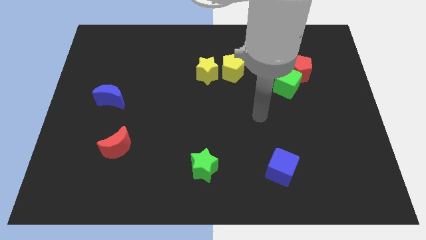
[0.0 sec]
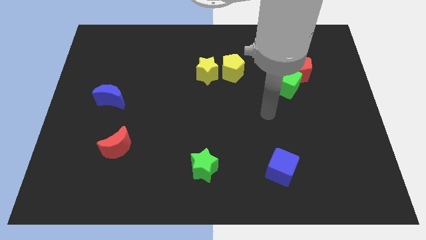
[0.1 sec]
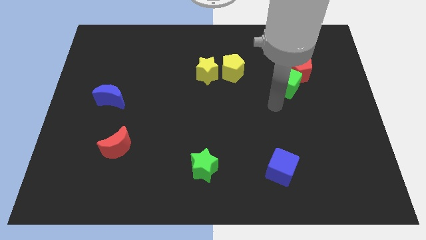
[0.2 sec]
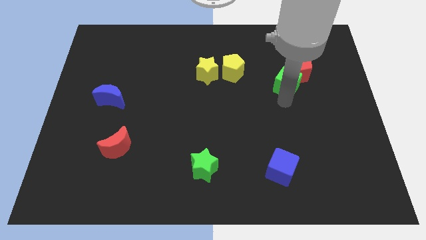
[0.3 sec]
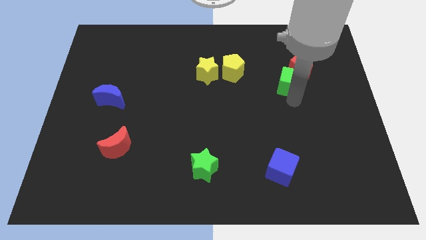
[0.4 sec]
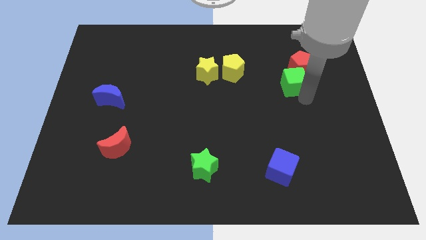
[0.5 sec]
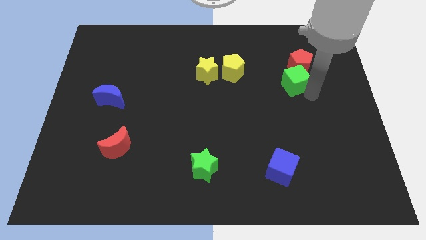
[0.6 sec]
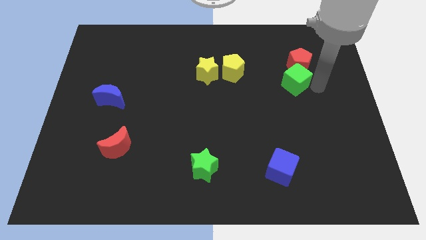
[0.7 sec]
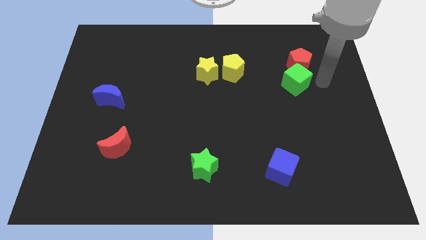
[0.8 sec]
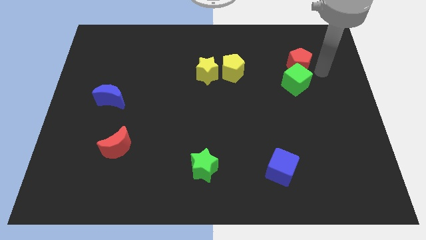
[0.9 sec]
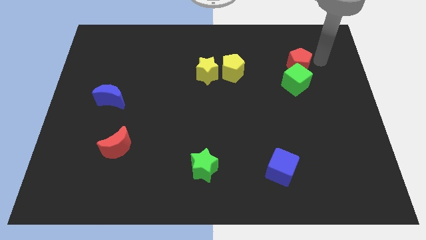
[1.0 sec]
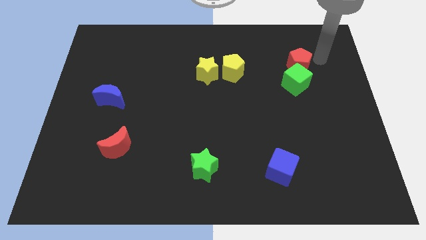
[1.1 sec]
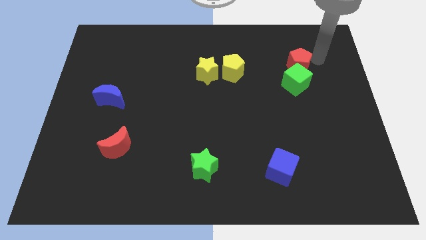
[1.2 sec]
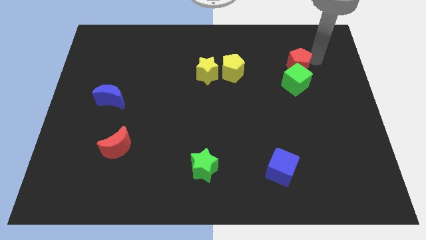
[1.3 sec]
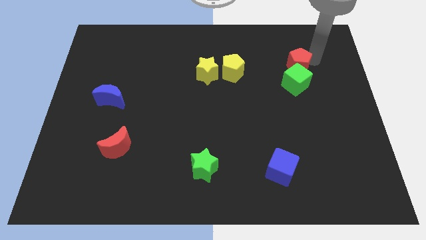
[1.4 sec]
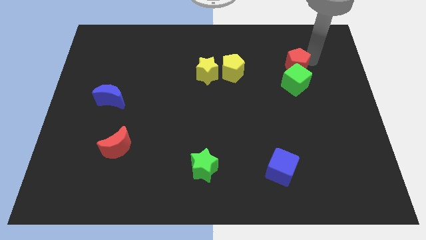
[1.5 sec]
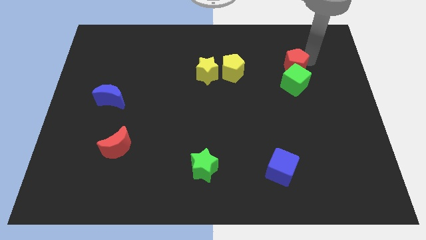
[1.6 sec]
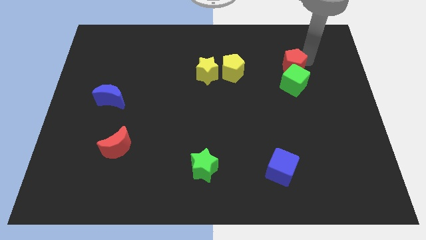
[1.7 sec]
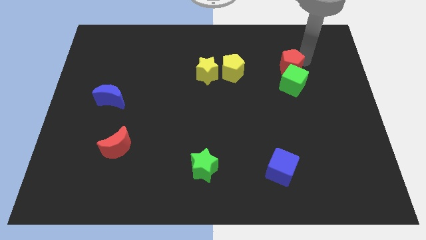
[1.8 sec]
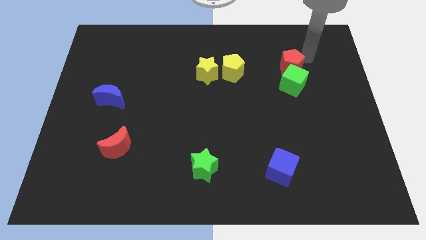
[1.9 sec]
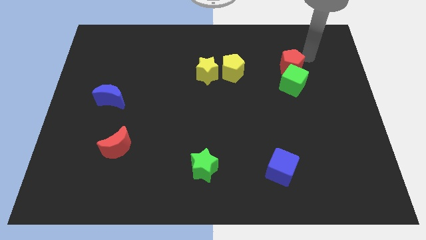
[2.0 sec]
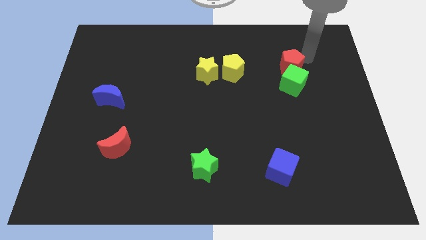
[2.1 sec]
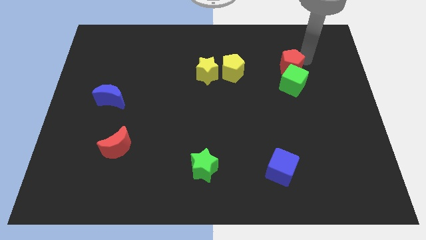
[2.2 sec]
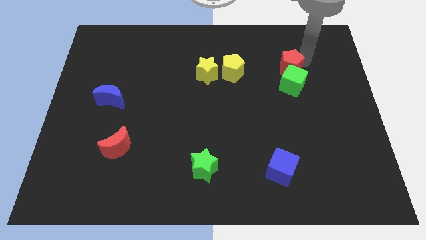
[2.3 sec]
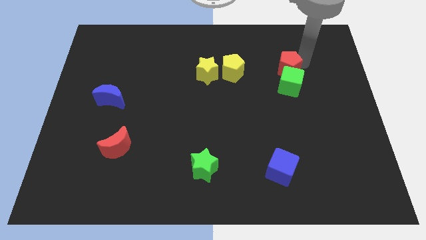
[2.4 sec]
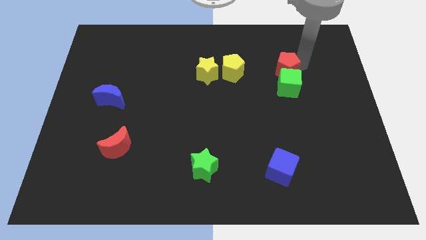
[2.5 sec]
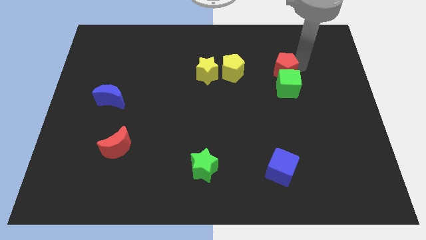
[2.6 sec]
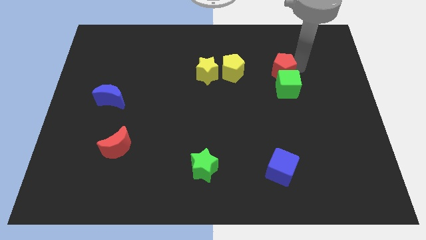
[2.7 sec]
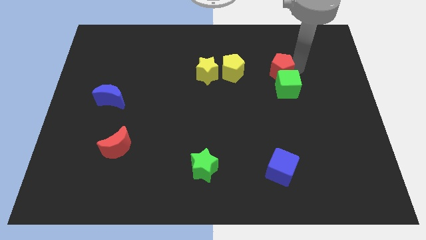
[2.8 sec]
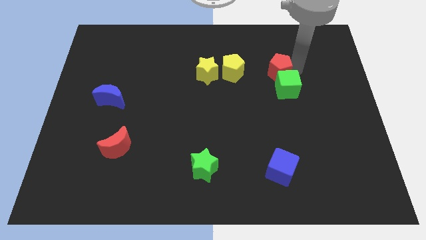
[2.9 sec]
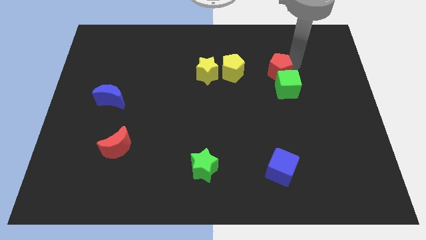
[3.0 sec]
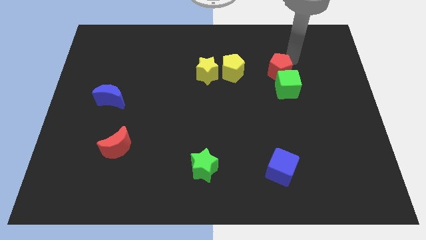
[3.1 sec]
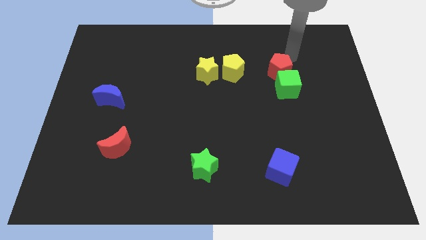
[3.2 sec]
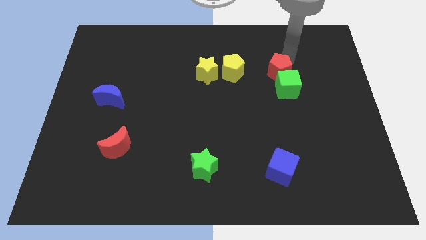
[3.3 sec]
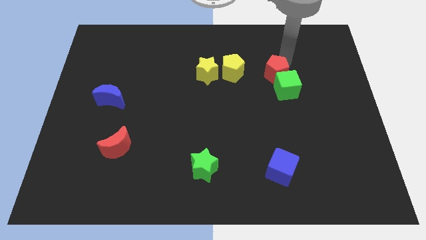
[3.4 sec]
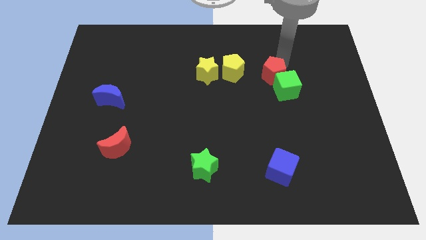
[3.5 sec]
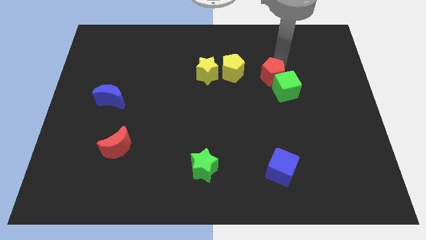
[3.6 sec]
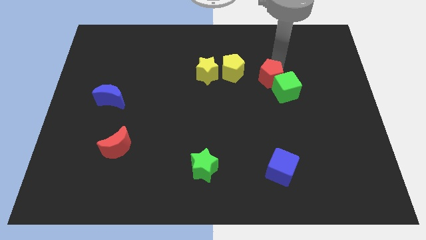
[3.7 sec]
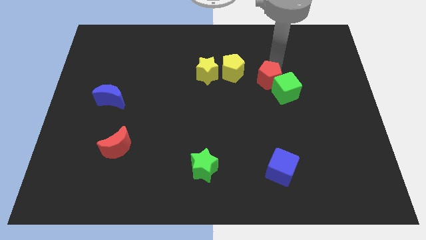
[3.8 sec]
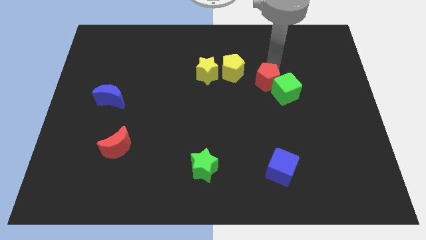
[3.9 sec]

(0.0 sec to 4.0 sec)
slide the red pentagon a little bit diagonally down and left

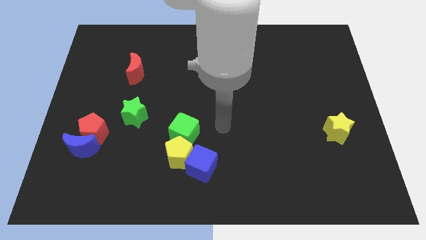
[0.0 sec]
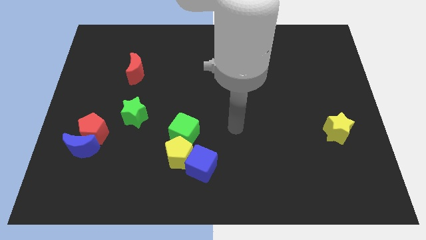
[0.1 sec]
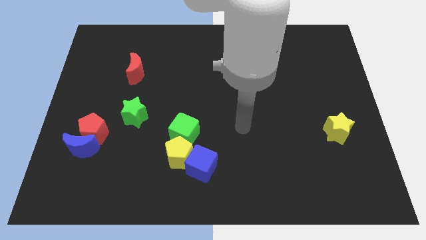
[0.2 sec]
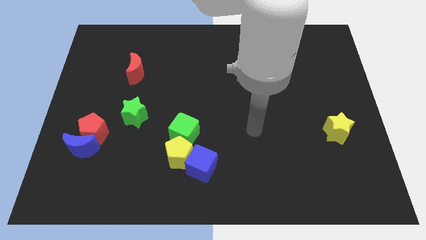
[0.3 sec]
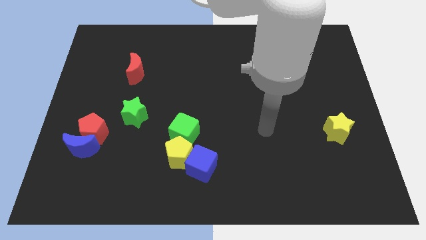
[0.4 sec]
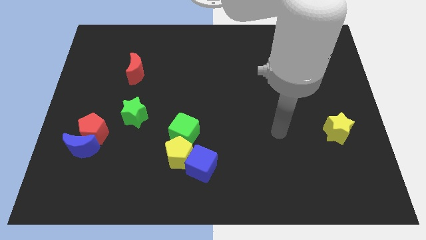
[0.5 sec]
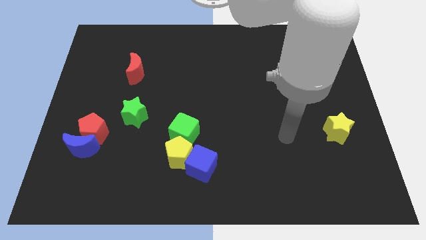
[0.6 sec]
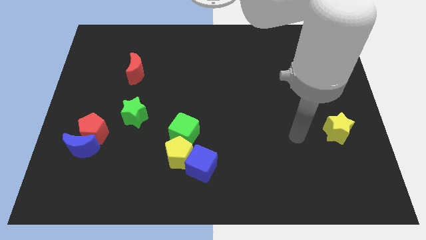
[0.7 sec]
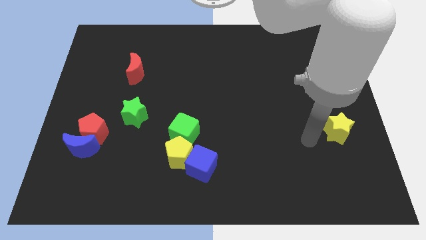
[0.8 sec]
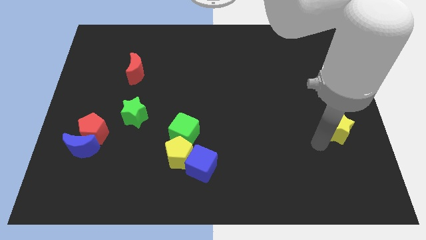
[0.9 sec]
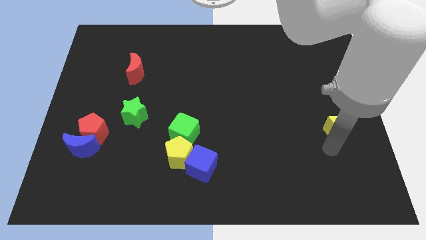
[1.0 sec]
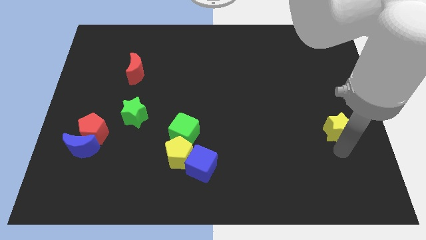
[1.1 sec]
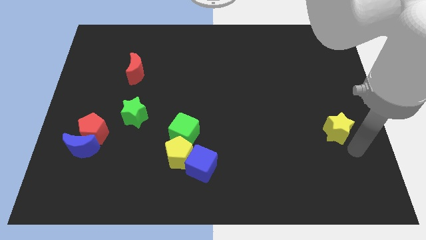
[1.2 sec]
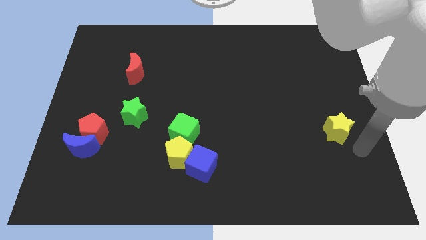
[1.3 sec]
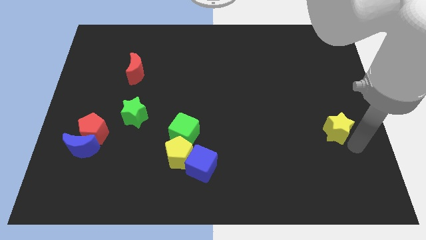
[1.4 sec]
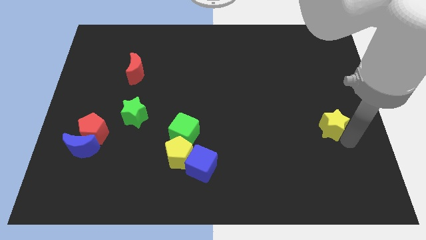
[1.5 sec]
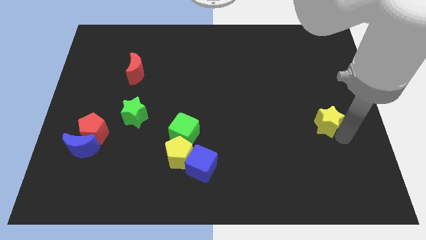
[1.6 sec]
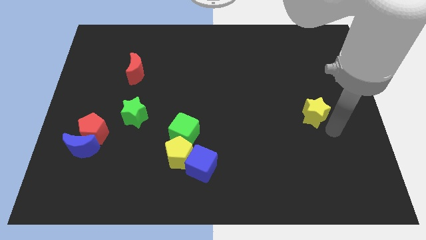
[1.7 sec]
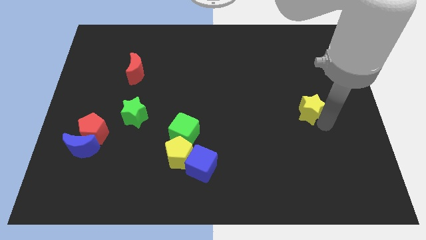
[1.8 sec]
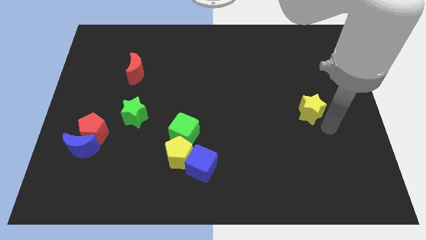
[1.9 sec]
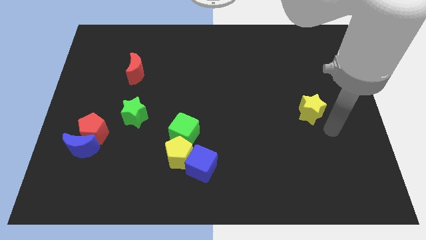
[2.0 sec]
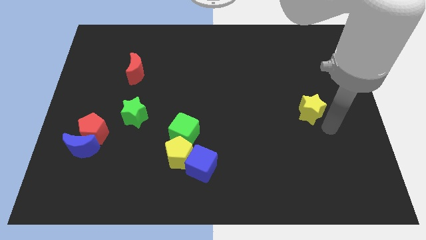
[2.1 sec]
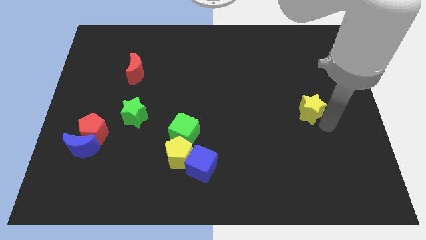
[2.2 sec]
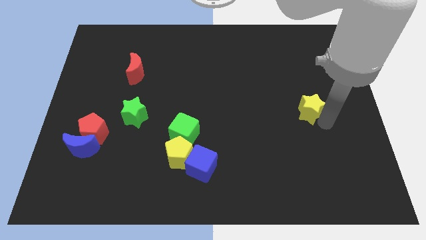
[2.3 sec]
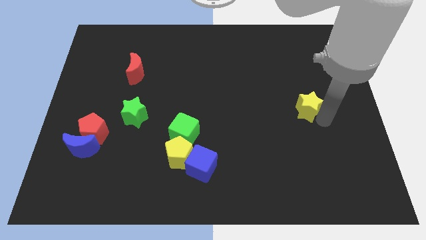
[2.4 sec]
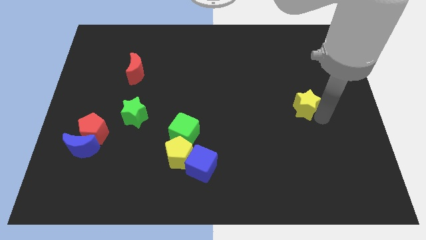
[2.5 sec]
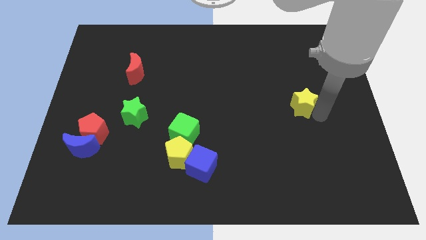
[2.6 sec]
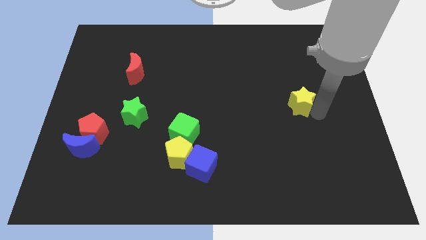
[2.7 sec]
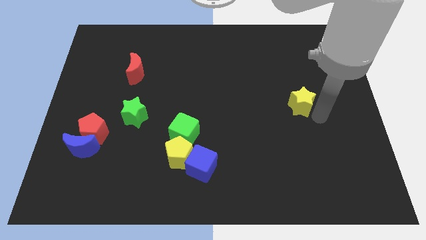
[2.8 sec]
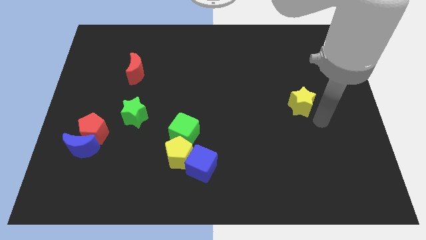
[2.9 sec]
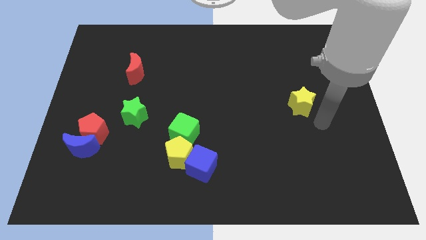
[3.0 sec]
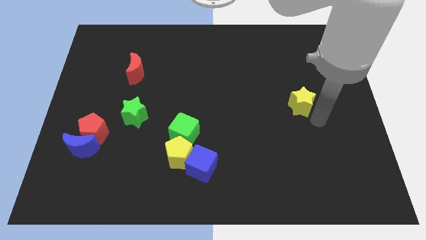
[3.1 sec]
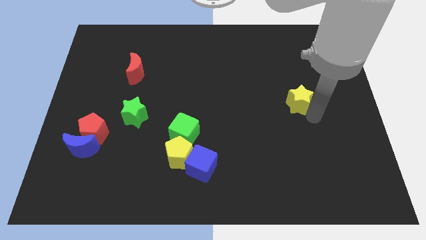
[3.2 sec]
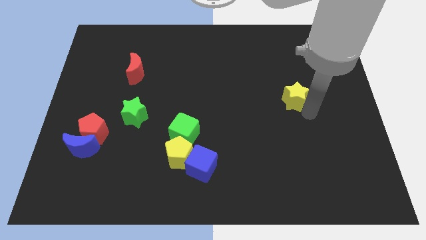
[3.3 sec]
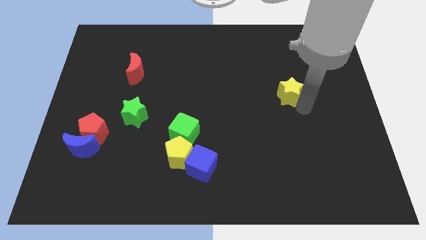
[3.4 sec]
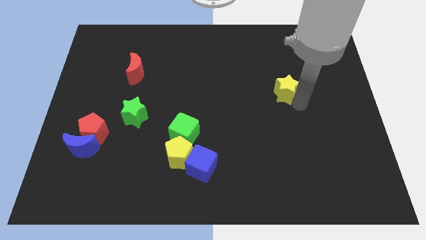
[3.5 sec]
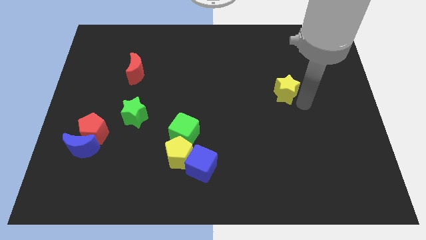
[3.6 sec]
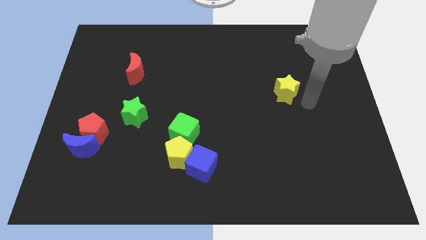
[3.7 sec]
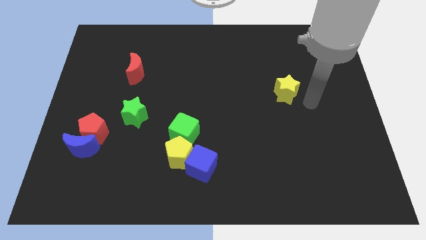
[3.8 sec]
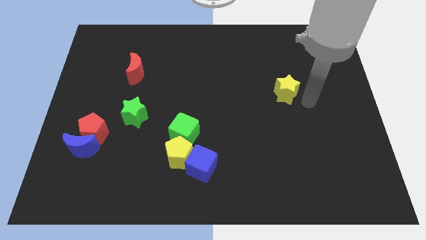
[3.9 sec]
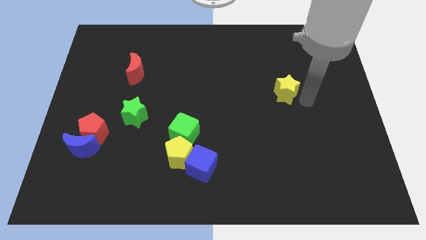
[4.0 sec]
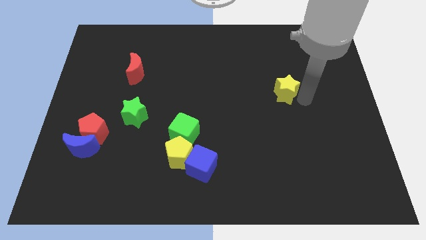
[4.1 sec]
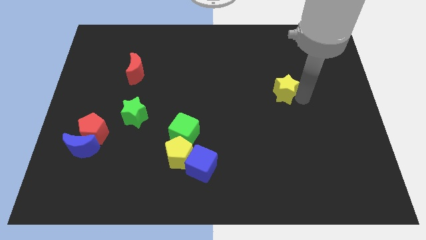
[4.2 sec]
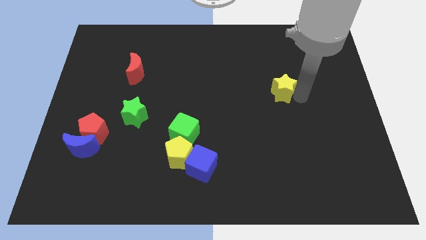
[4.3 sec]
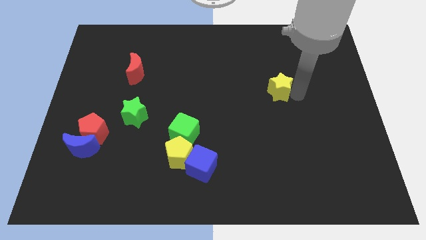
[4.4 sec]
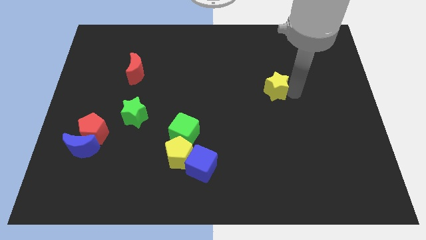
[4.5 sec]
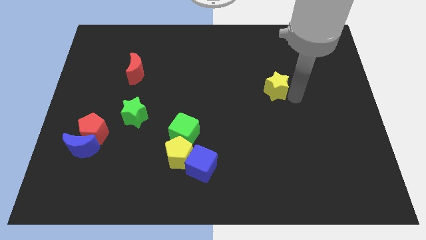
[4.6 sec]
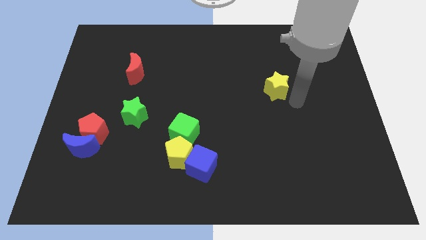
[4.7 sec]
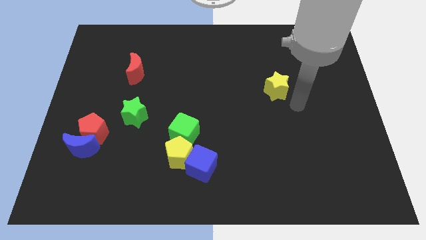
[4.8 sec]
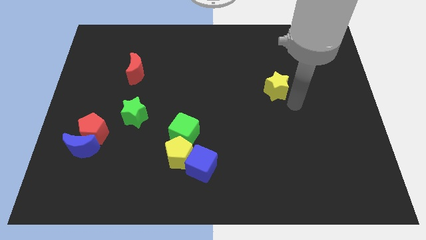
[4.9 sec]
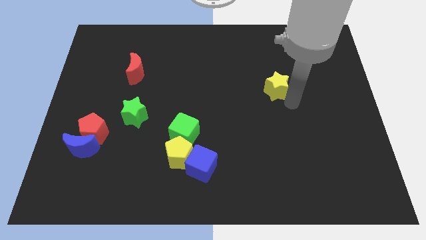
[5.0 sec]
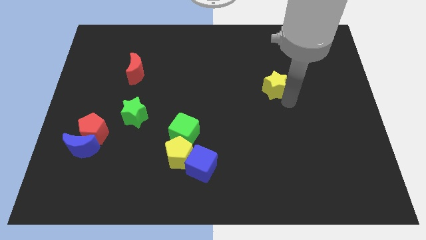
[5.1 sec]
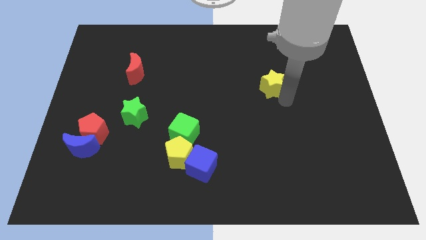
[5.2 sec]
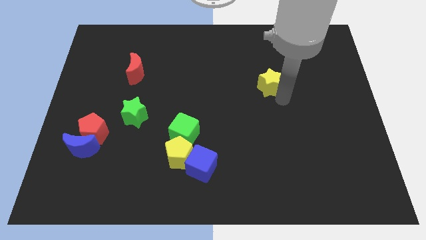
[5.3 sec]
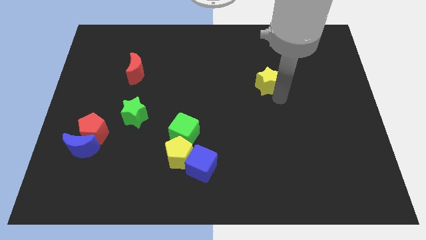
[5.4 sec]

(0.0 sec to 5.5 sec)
move the yellow star upwards and then to the left
